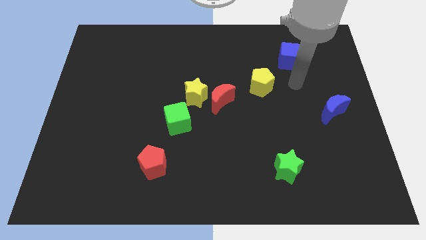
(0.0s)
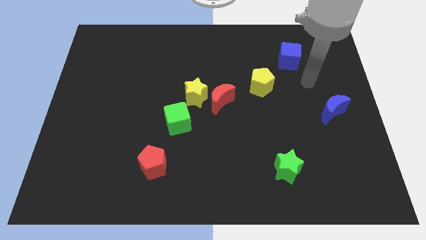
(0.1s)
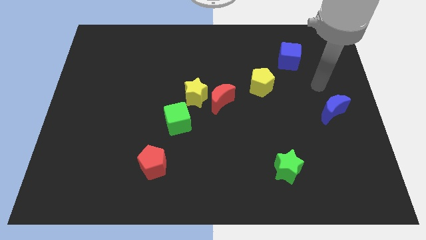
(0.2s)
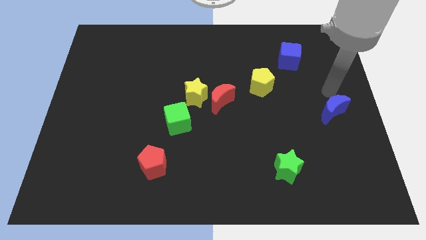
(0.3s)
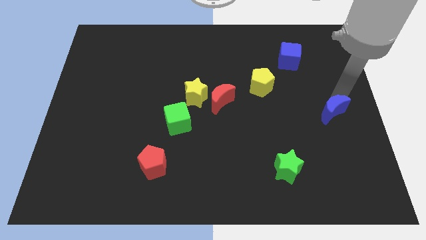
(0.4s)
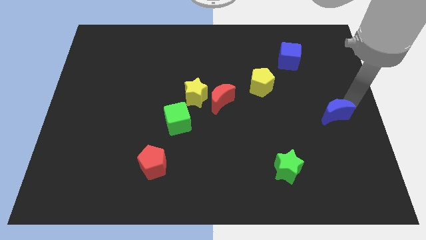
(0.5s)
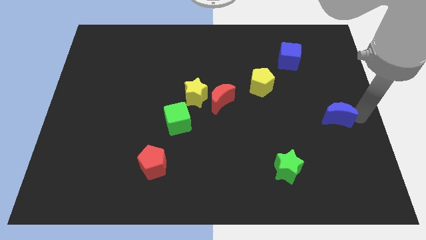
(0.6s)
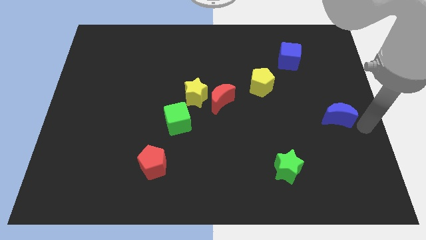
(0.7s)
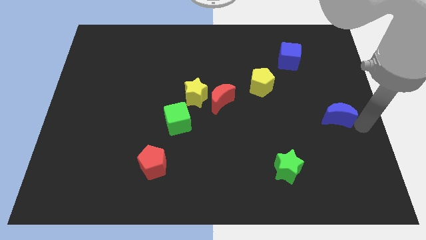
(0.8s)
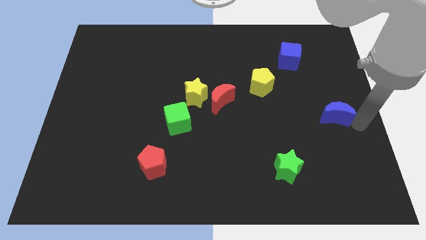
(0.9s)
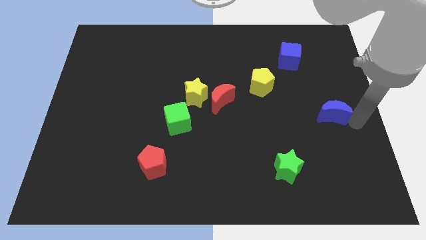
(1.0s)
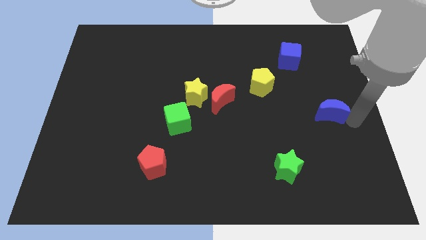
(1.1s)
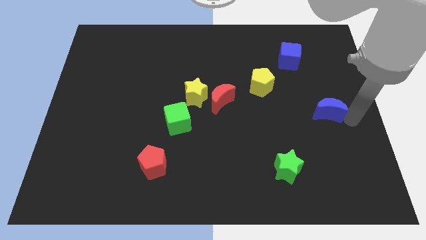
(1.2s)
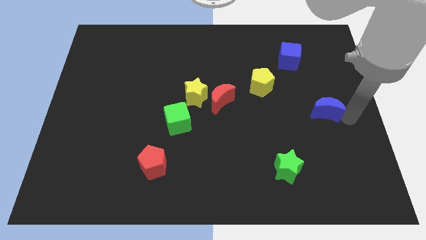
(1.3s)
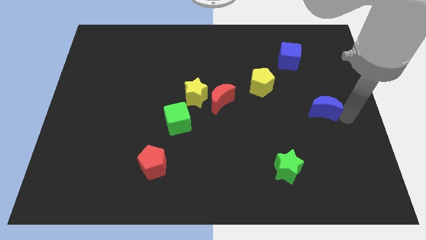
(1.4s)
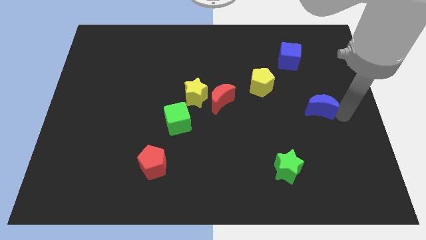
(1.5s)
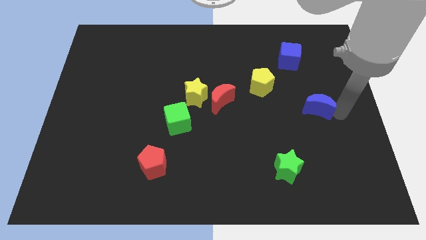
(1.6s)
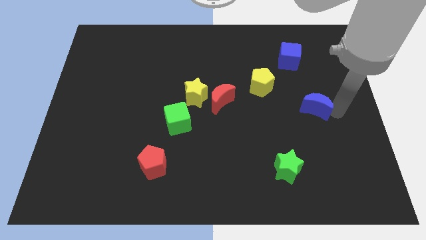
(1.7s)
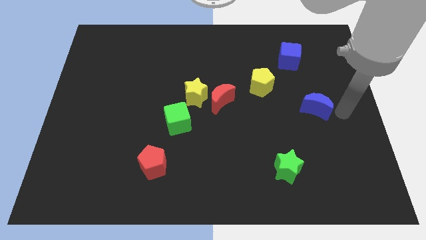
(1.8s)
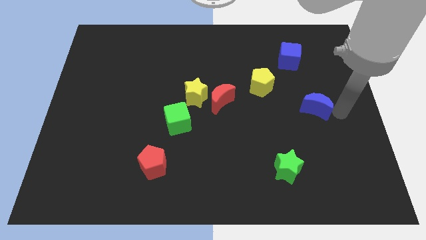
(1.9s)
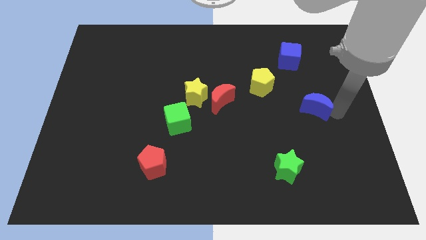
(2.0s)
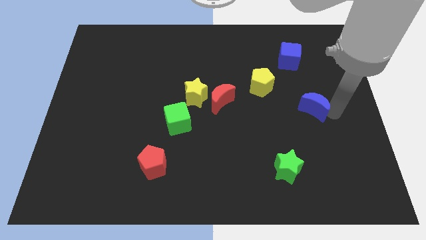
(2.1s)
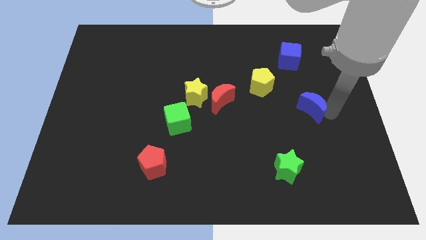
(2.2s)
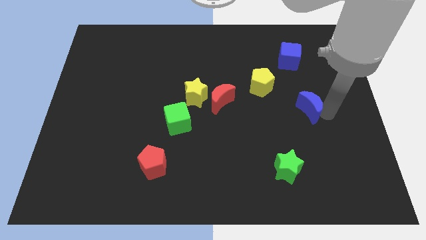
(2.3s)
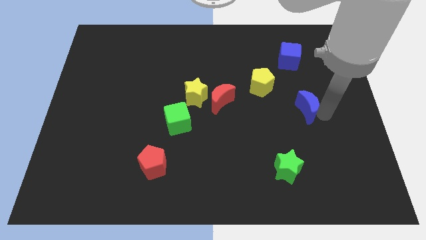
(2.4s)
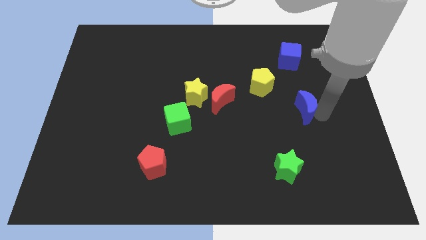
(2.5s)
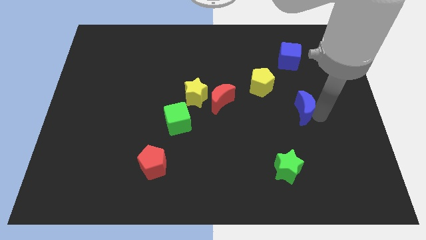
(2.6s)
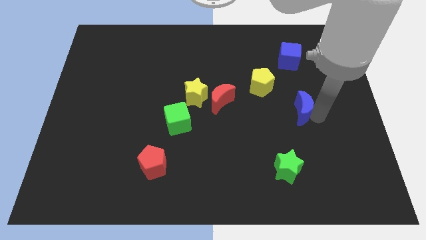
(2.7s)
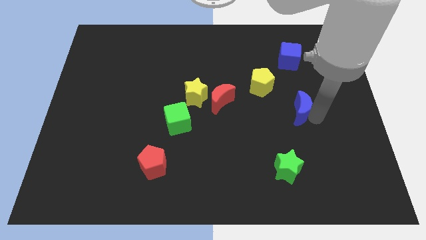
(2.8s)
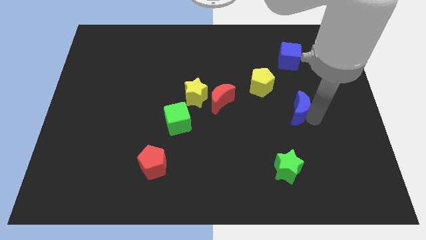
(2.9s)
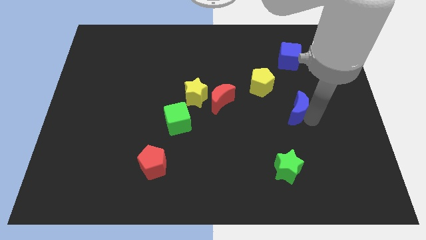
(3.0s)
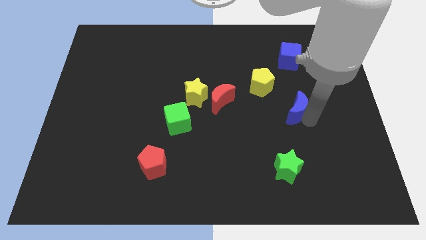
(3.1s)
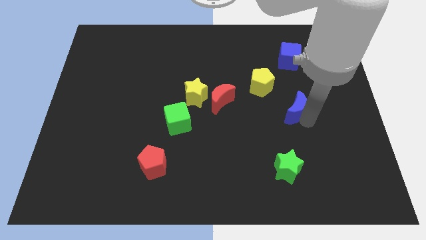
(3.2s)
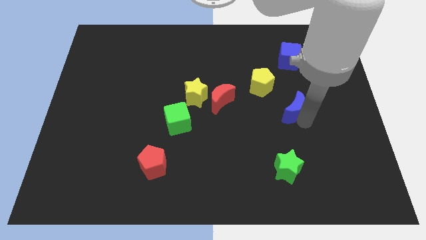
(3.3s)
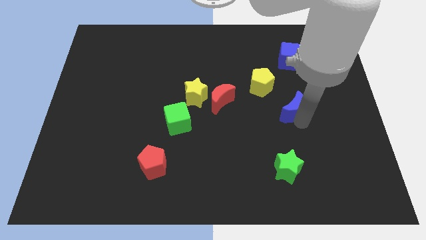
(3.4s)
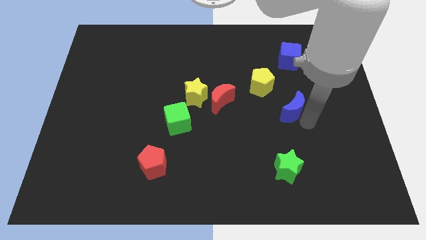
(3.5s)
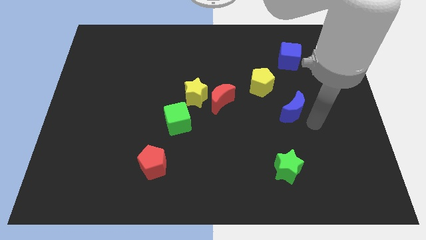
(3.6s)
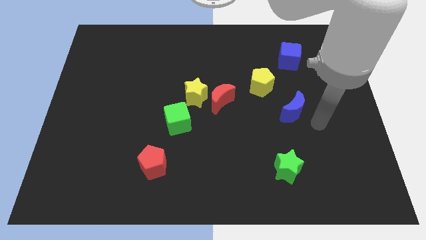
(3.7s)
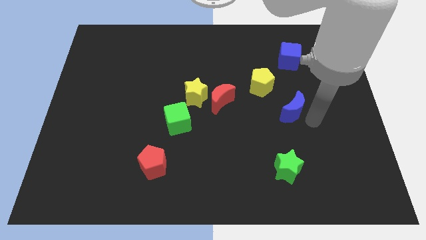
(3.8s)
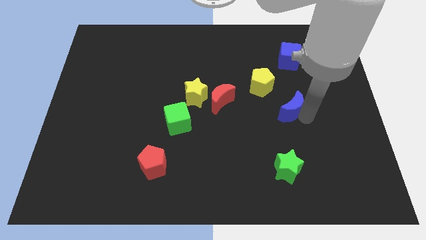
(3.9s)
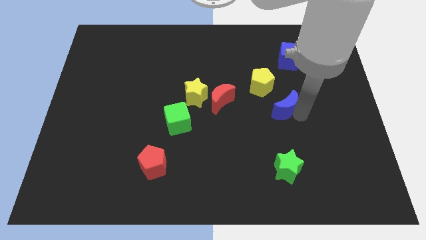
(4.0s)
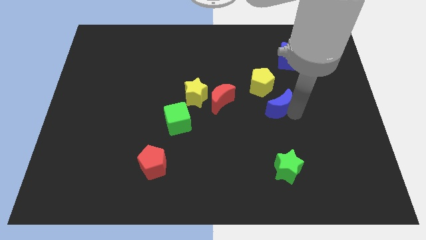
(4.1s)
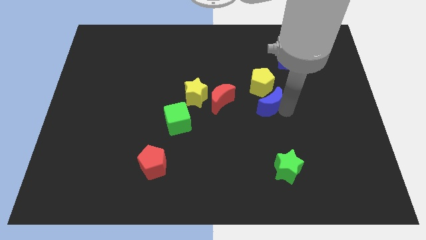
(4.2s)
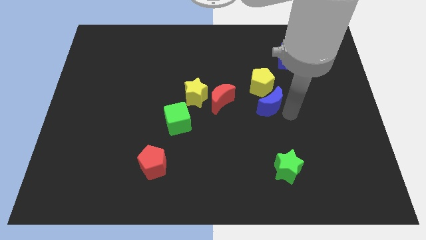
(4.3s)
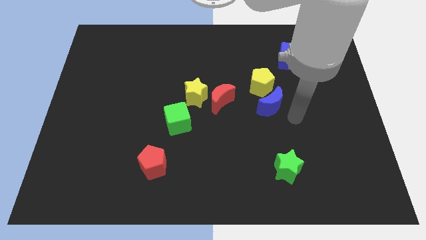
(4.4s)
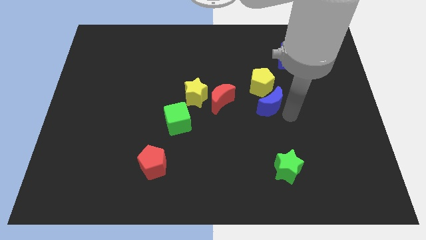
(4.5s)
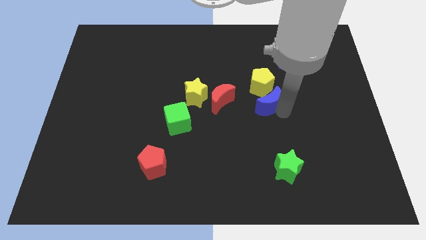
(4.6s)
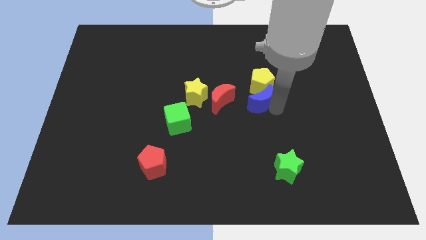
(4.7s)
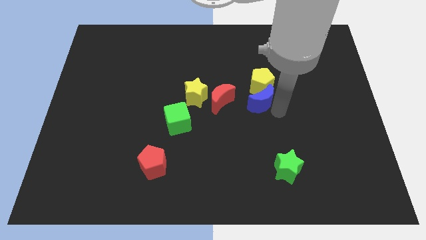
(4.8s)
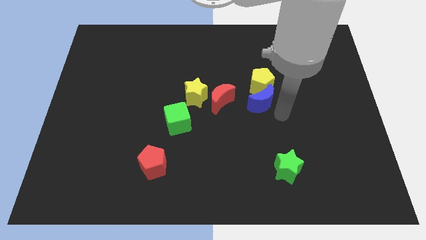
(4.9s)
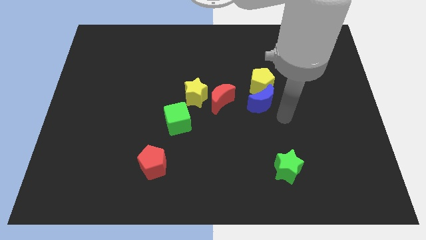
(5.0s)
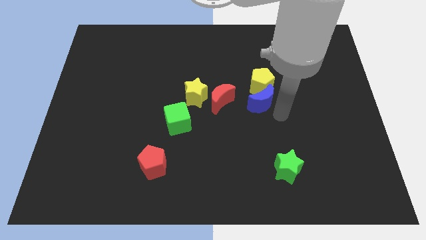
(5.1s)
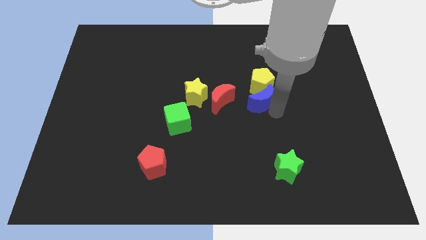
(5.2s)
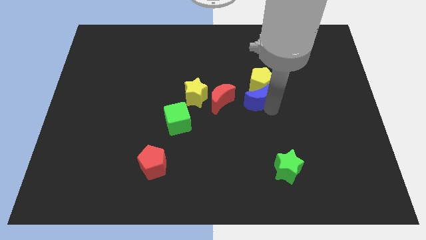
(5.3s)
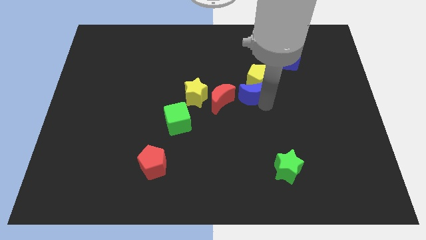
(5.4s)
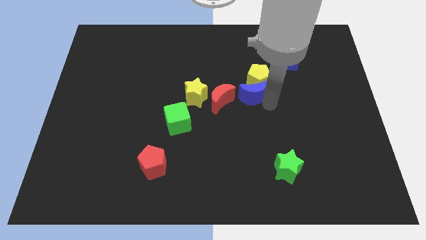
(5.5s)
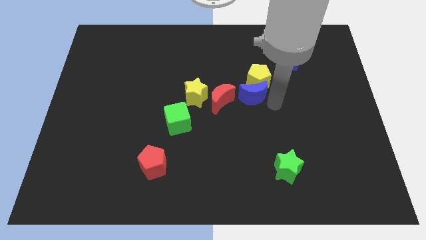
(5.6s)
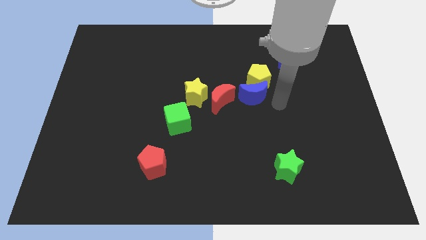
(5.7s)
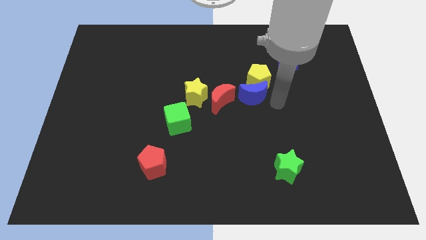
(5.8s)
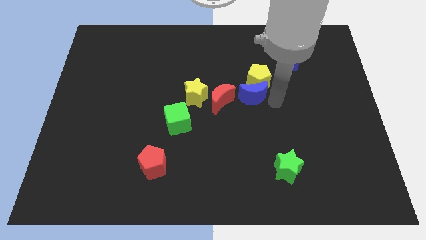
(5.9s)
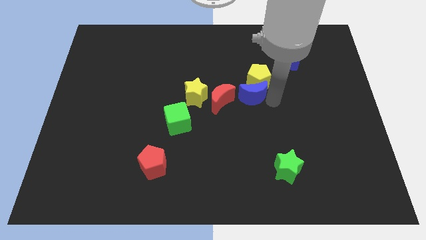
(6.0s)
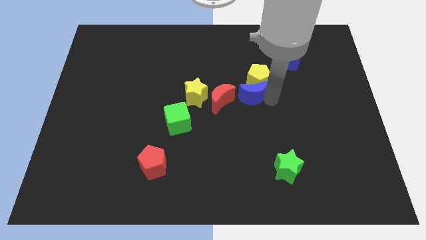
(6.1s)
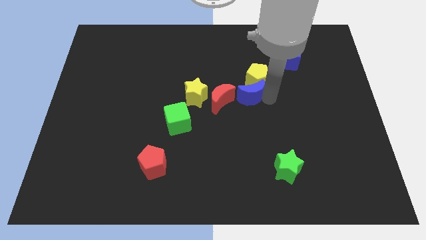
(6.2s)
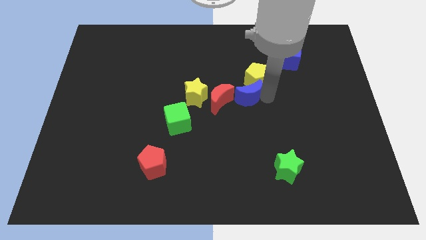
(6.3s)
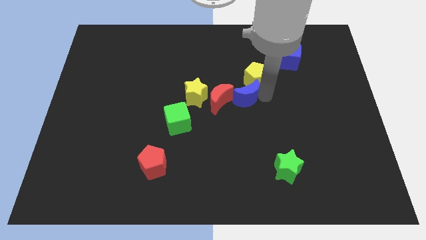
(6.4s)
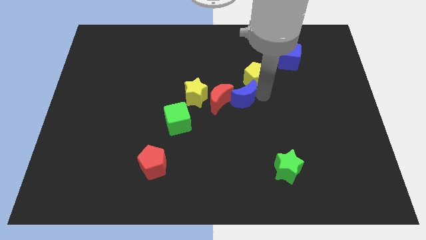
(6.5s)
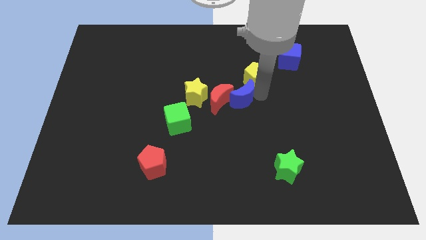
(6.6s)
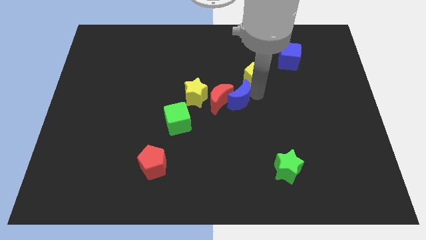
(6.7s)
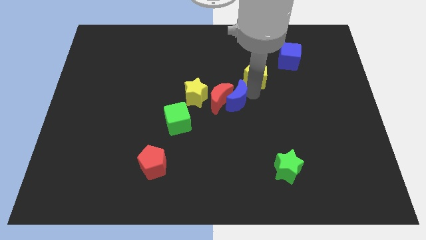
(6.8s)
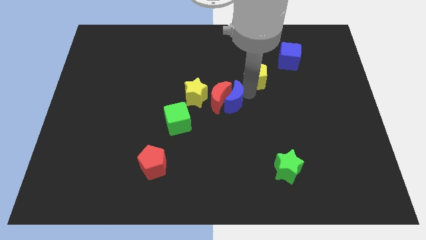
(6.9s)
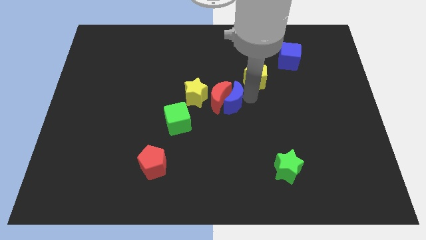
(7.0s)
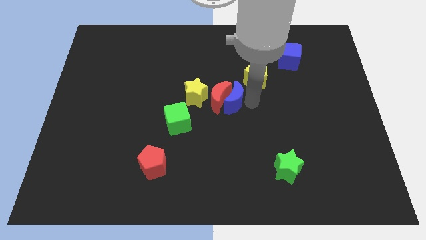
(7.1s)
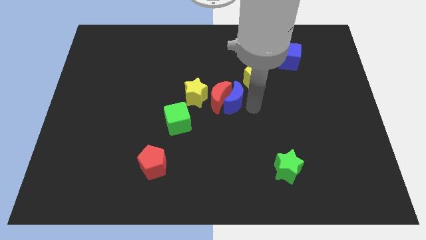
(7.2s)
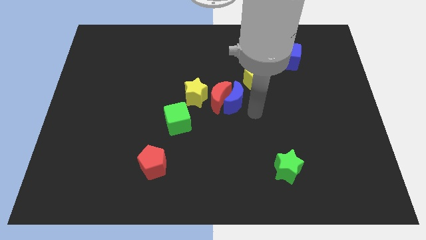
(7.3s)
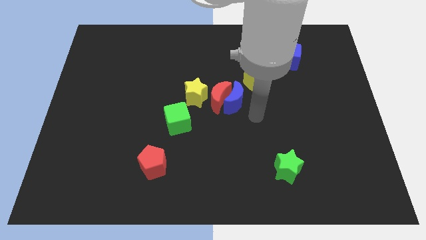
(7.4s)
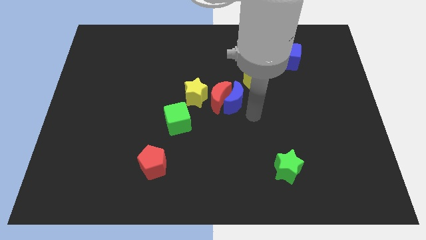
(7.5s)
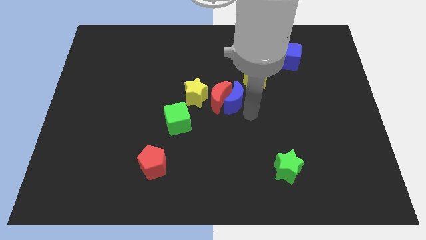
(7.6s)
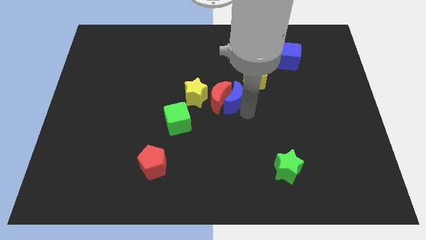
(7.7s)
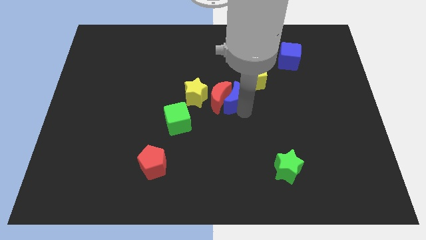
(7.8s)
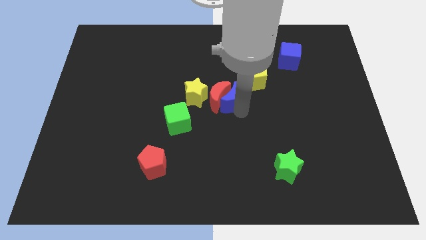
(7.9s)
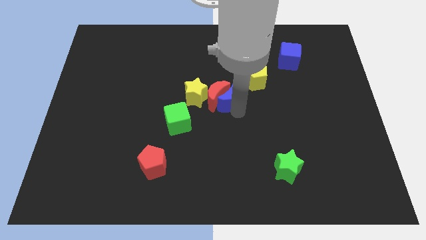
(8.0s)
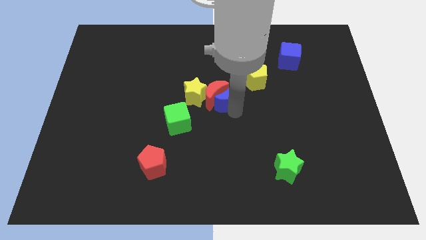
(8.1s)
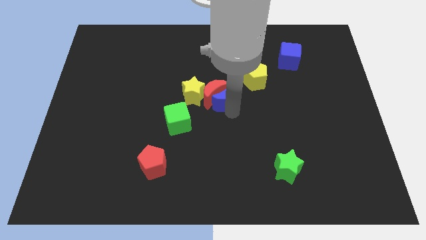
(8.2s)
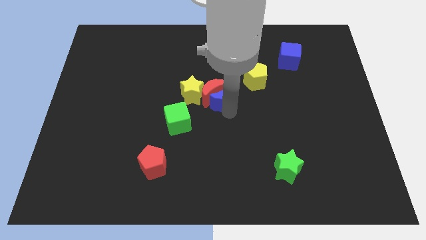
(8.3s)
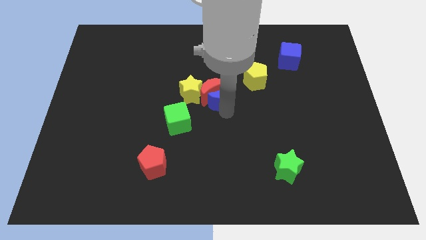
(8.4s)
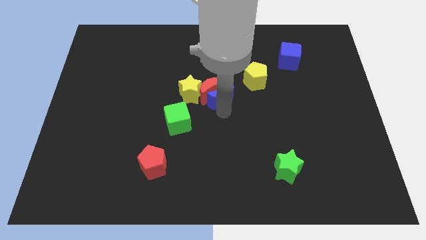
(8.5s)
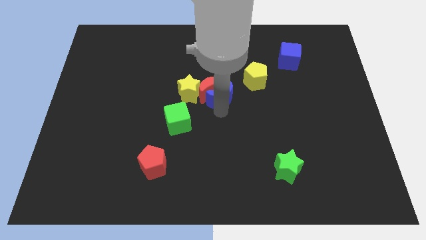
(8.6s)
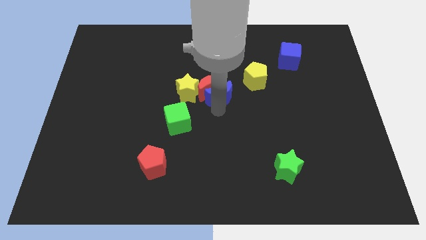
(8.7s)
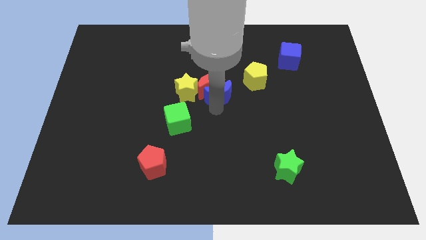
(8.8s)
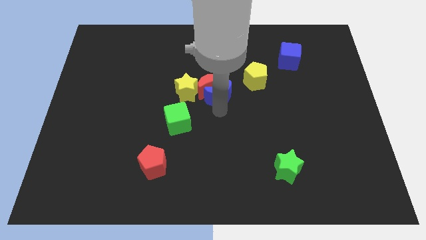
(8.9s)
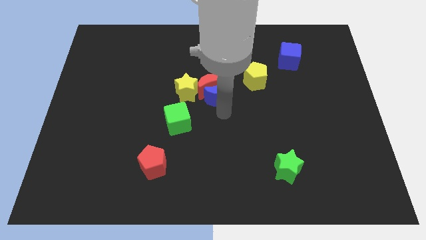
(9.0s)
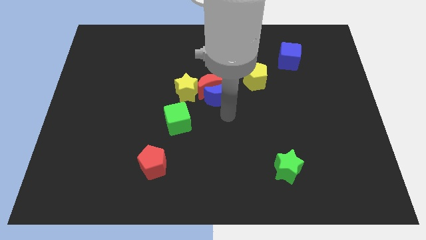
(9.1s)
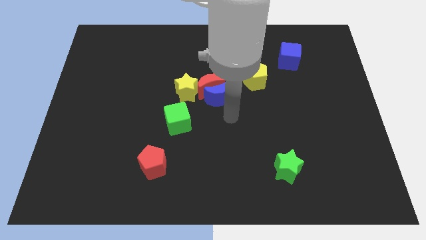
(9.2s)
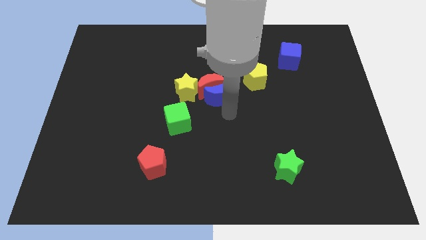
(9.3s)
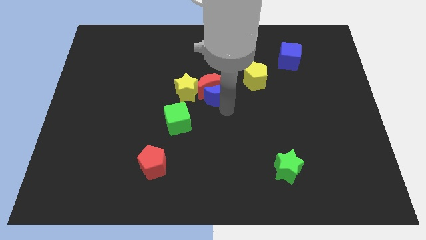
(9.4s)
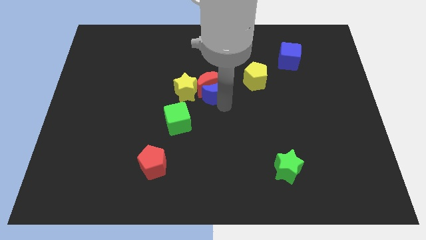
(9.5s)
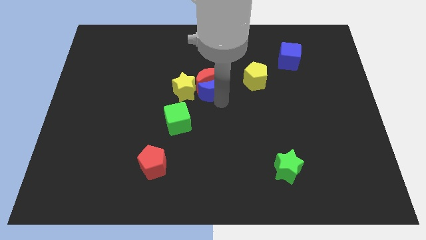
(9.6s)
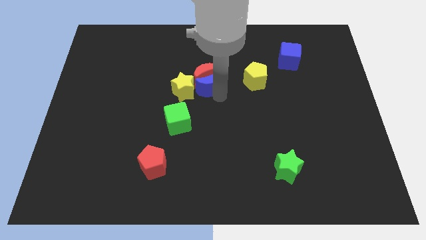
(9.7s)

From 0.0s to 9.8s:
push the blue moon towards the yellow star
